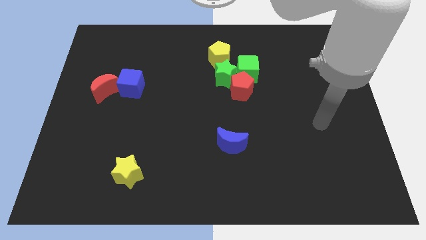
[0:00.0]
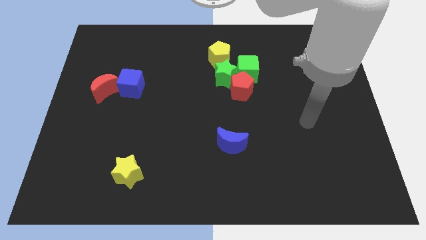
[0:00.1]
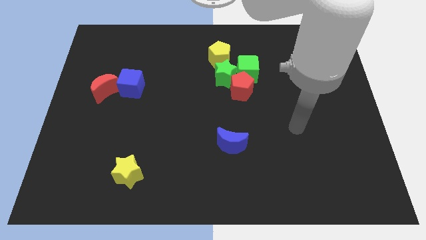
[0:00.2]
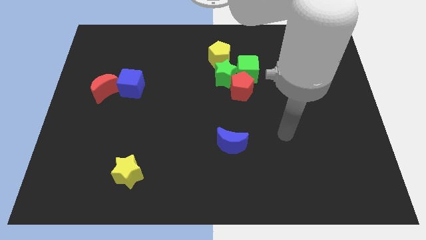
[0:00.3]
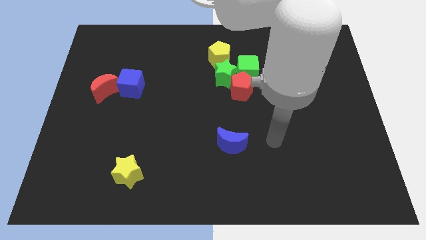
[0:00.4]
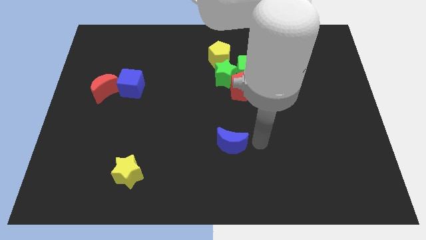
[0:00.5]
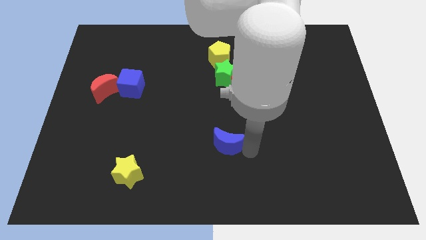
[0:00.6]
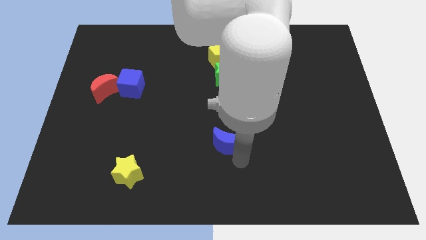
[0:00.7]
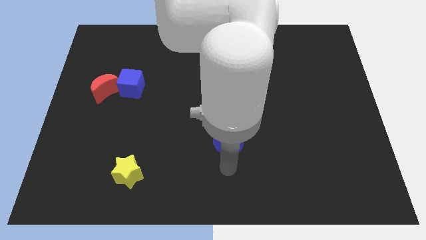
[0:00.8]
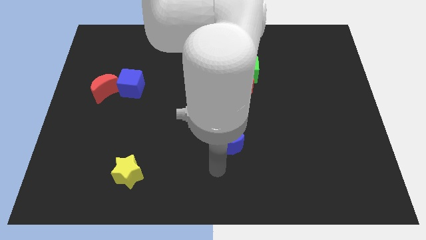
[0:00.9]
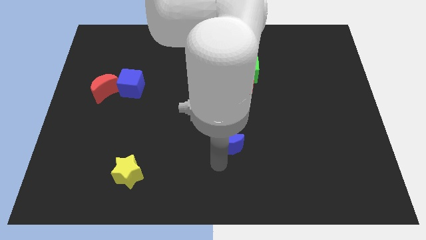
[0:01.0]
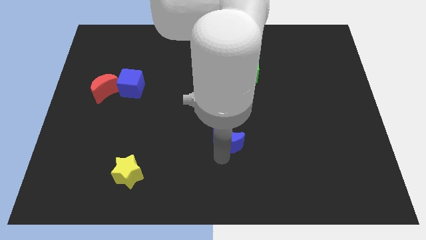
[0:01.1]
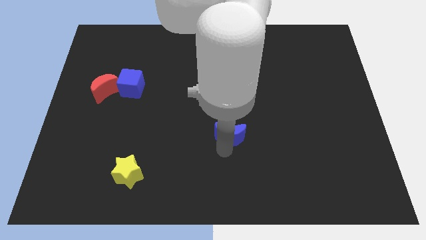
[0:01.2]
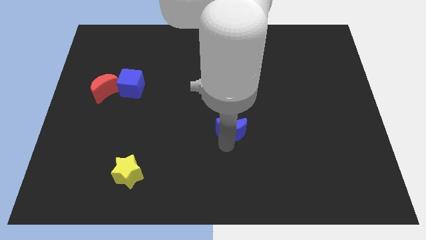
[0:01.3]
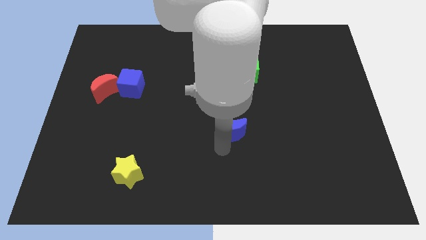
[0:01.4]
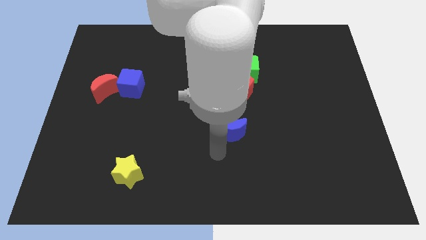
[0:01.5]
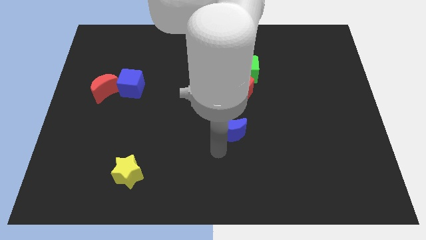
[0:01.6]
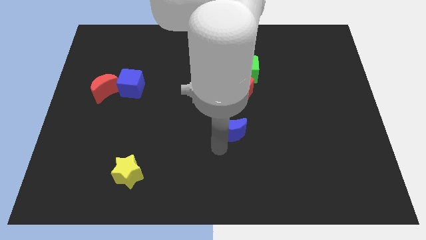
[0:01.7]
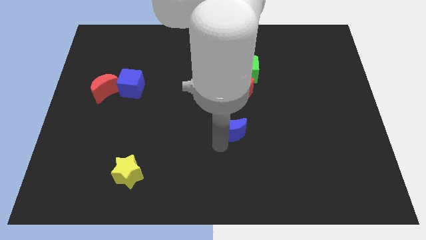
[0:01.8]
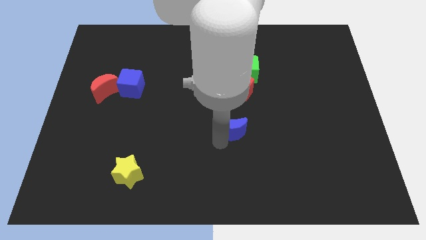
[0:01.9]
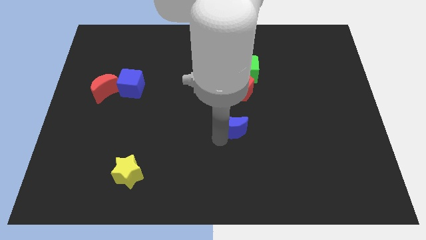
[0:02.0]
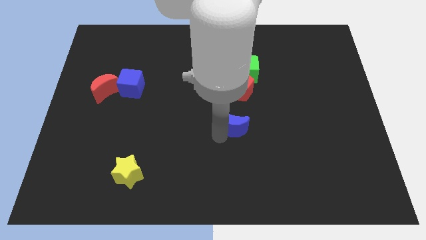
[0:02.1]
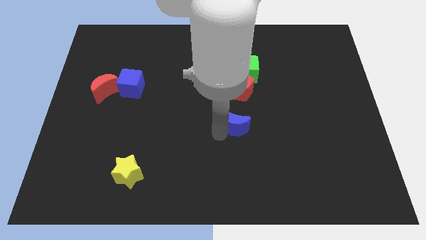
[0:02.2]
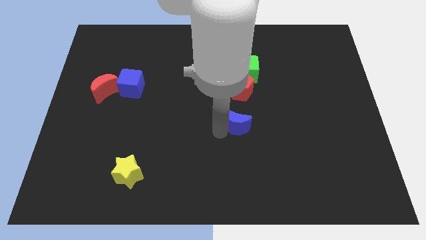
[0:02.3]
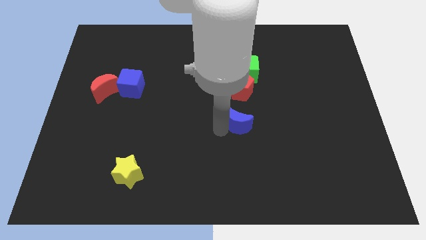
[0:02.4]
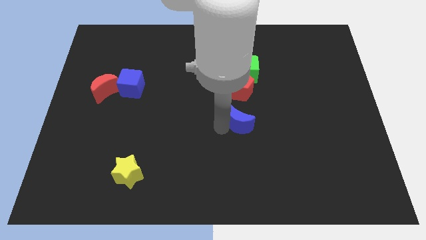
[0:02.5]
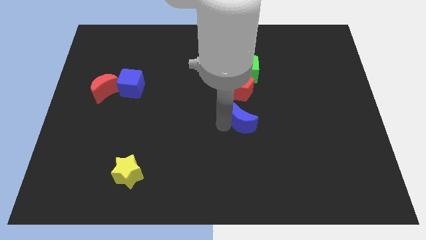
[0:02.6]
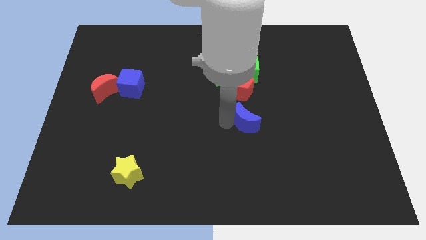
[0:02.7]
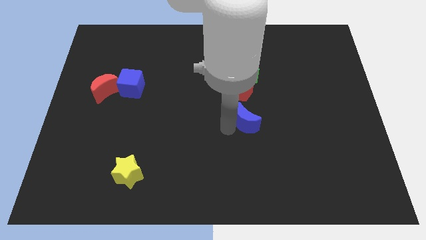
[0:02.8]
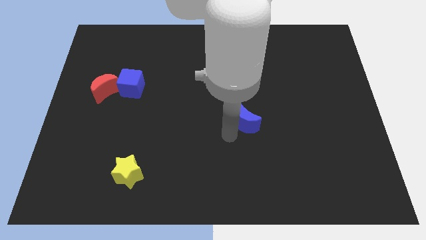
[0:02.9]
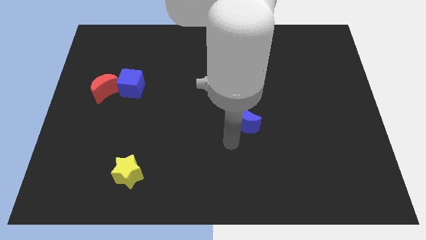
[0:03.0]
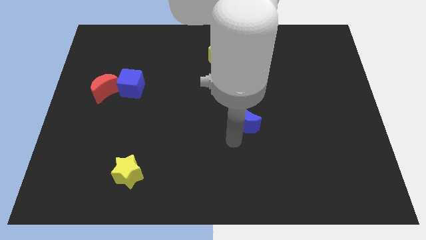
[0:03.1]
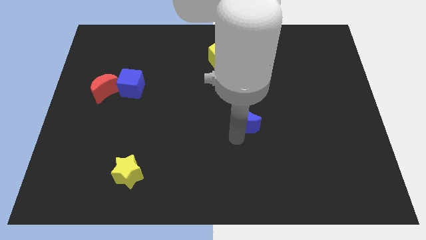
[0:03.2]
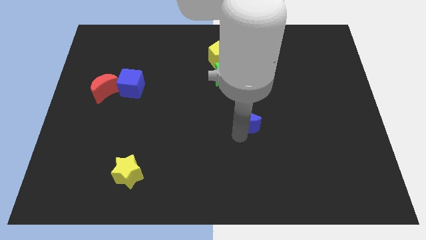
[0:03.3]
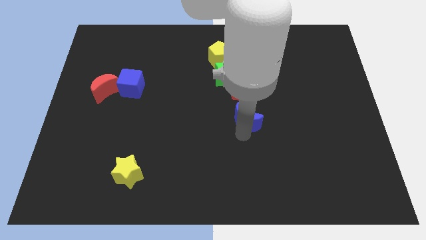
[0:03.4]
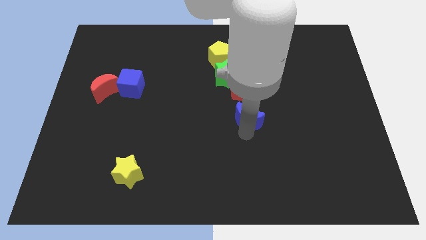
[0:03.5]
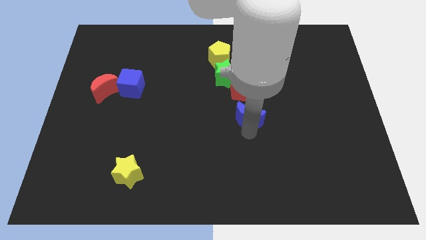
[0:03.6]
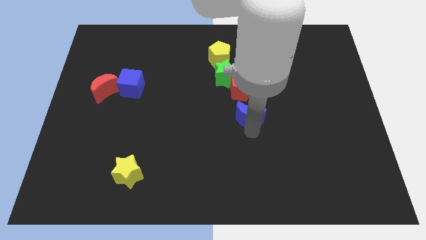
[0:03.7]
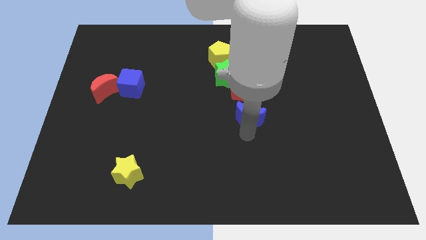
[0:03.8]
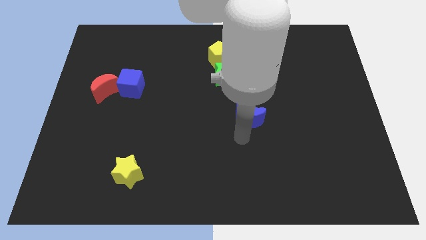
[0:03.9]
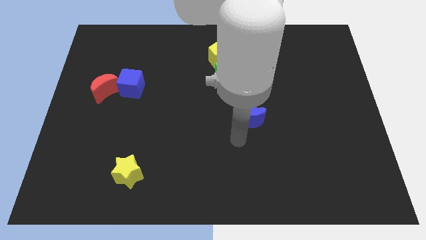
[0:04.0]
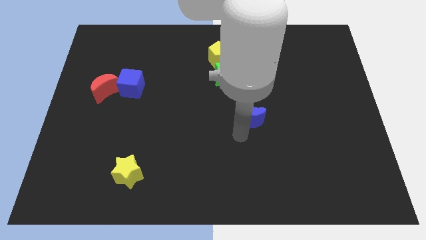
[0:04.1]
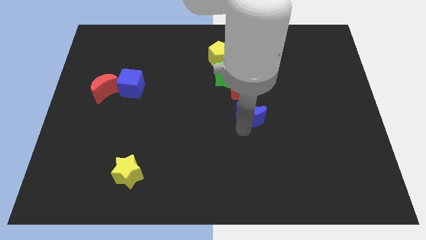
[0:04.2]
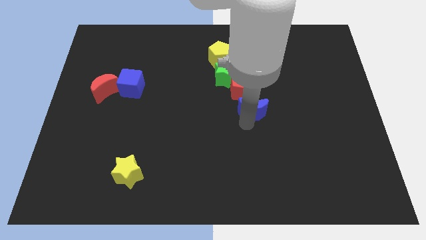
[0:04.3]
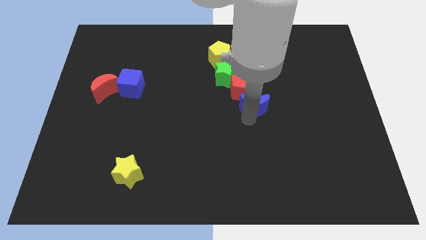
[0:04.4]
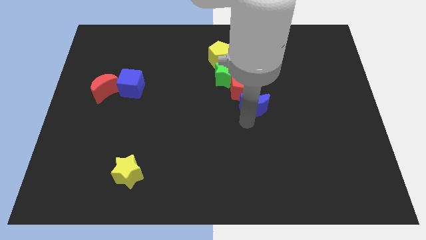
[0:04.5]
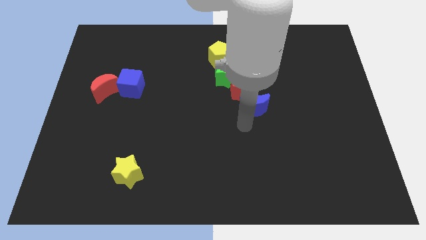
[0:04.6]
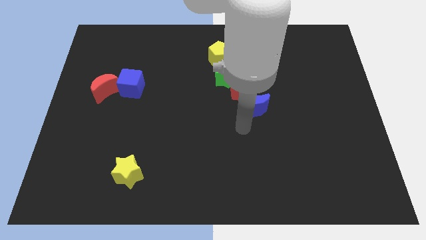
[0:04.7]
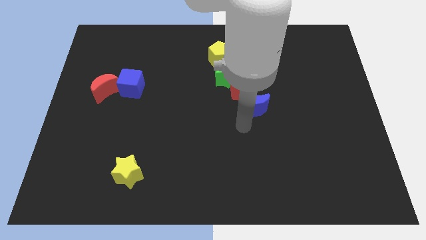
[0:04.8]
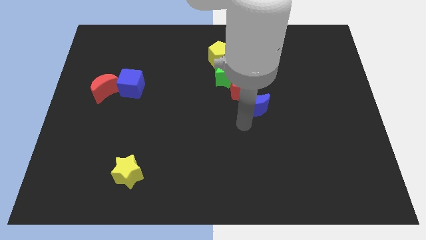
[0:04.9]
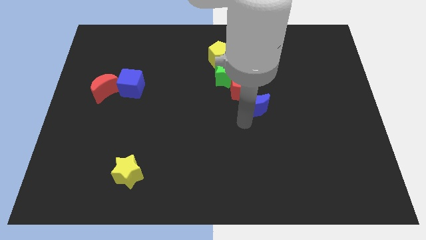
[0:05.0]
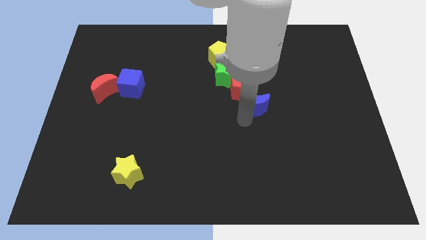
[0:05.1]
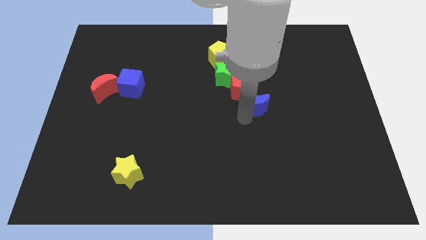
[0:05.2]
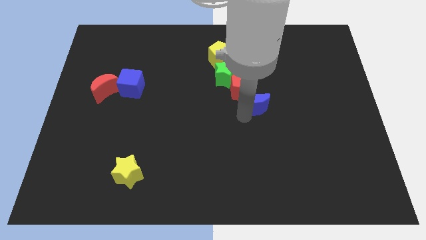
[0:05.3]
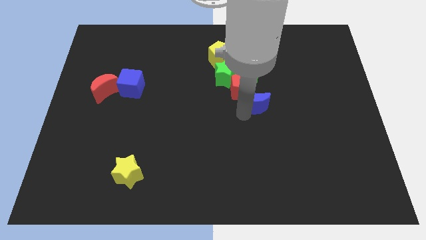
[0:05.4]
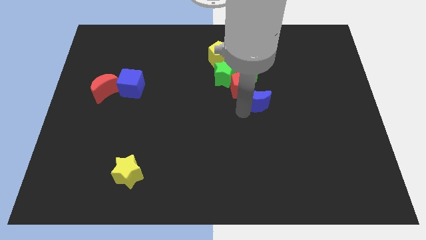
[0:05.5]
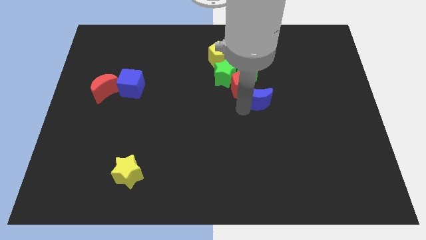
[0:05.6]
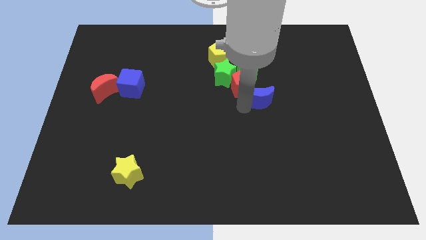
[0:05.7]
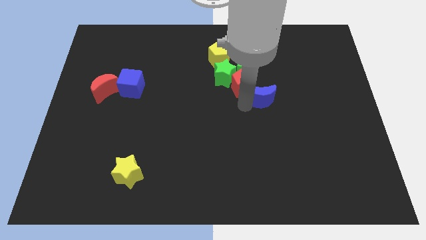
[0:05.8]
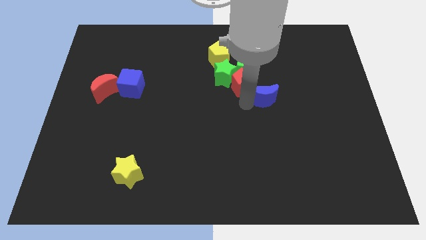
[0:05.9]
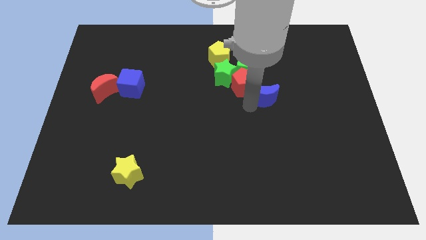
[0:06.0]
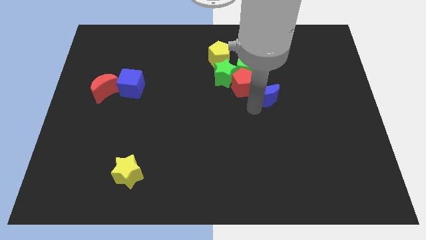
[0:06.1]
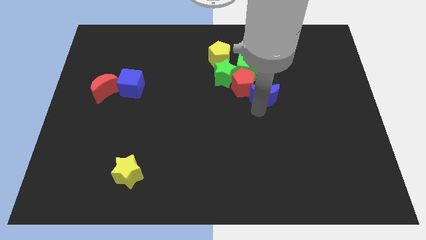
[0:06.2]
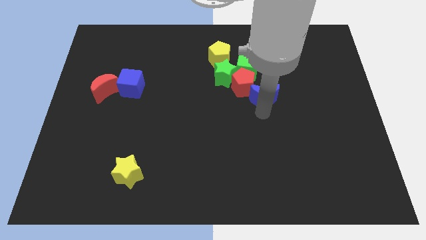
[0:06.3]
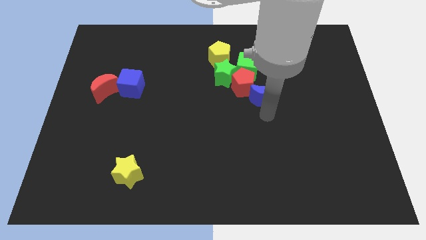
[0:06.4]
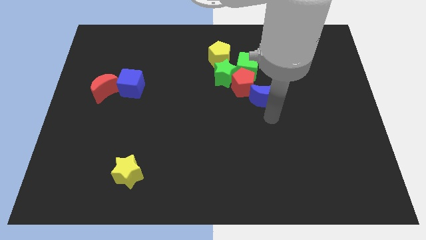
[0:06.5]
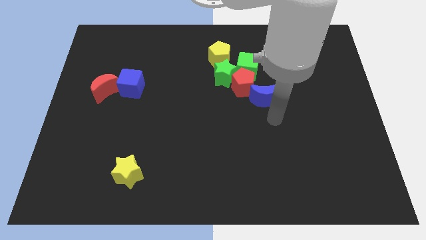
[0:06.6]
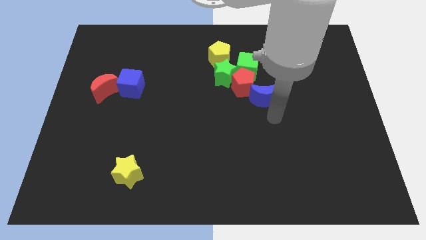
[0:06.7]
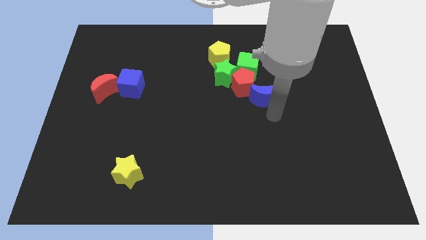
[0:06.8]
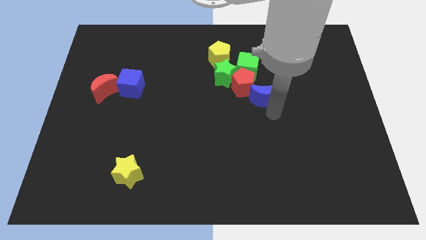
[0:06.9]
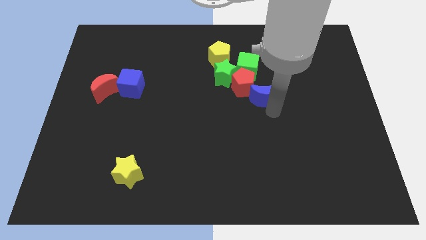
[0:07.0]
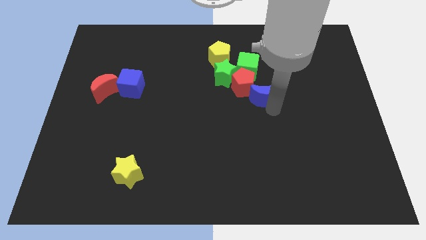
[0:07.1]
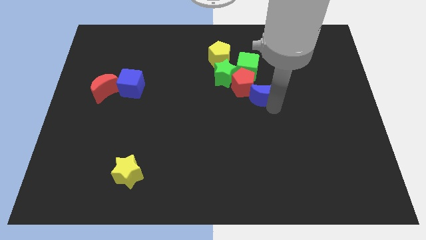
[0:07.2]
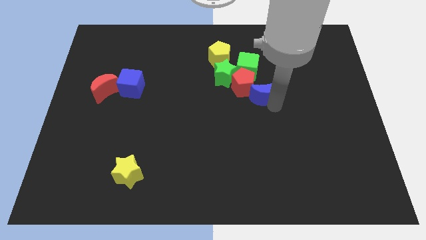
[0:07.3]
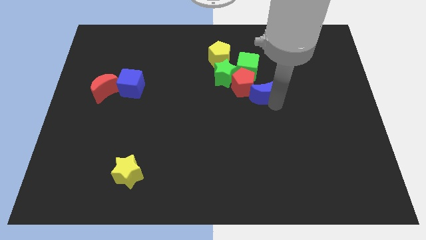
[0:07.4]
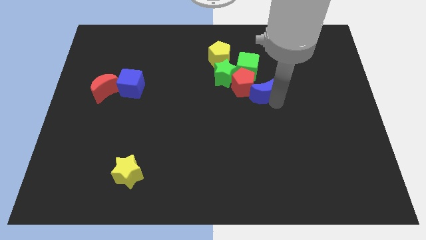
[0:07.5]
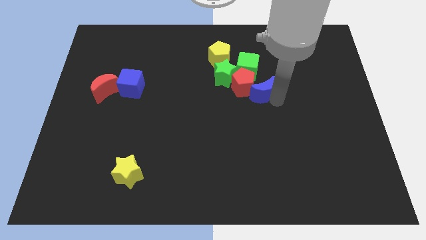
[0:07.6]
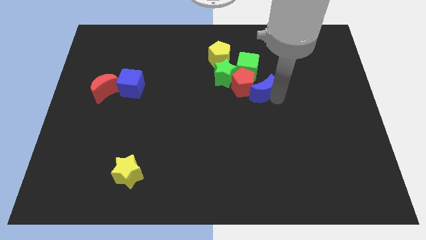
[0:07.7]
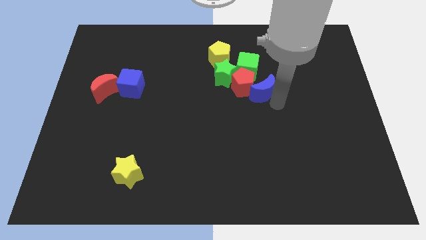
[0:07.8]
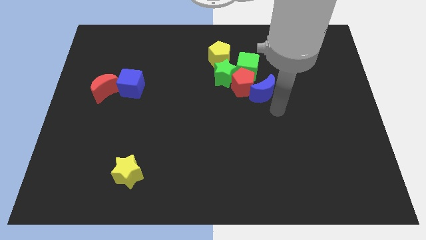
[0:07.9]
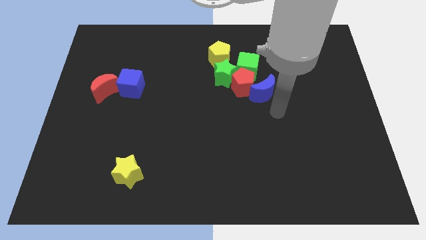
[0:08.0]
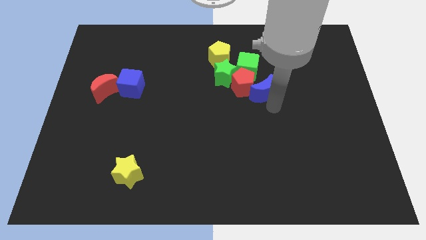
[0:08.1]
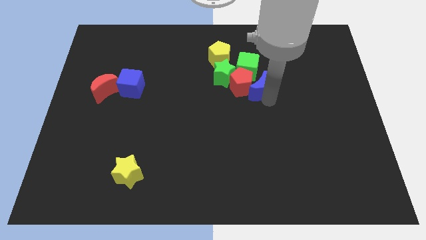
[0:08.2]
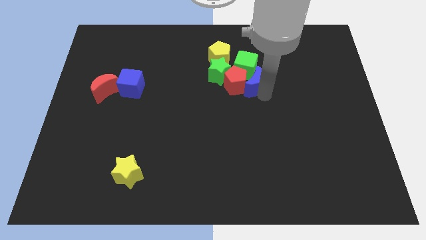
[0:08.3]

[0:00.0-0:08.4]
put the blue moon towards the green cube
